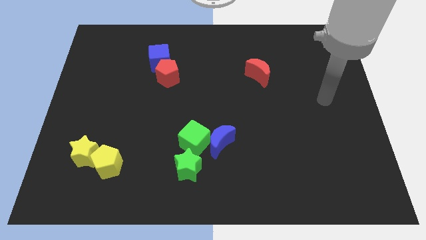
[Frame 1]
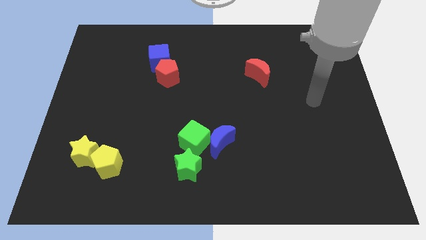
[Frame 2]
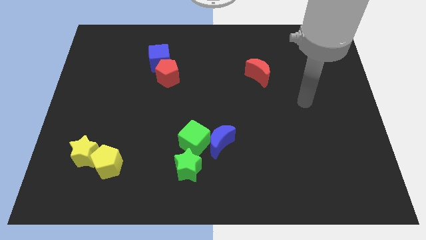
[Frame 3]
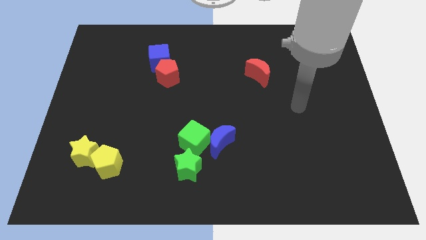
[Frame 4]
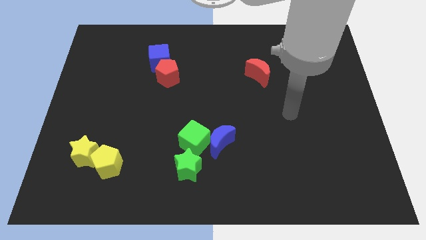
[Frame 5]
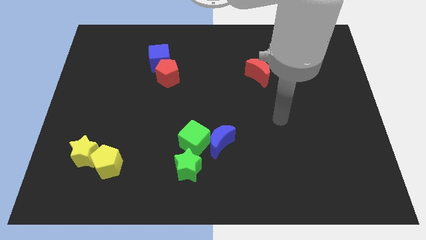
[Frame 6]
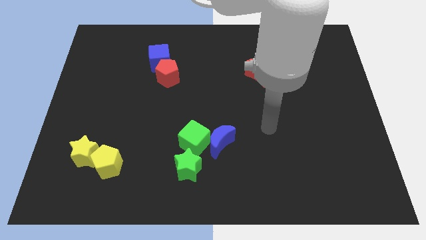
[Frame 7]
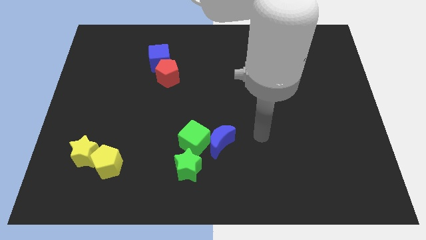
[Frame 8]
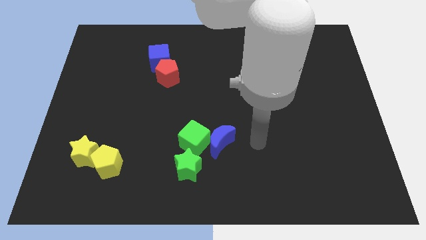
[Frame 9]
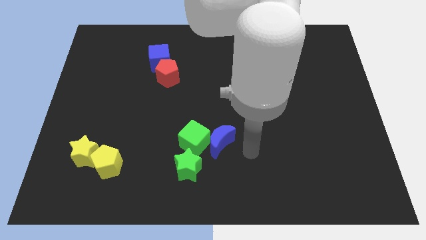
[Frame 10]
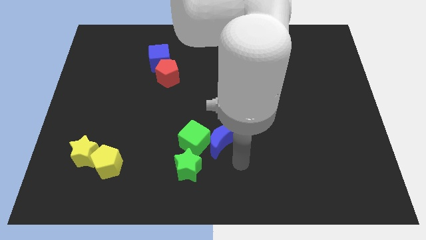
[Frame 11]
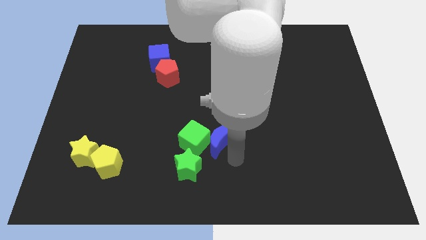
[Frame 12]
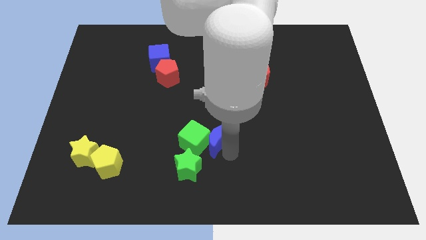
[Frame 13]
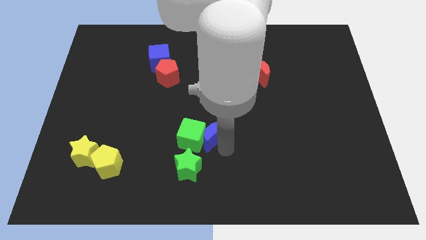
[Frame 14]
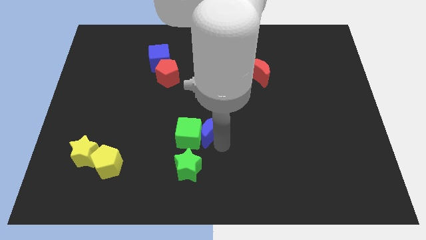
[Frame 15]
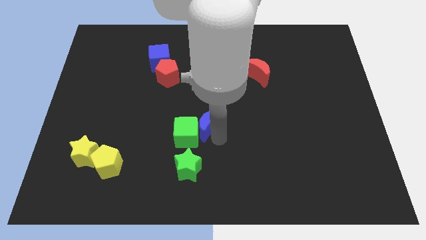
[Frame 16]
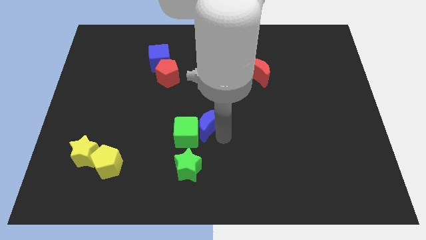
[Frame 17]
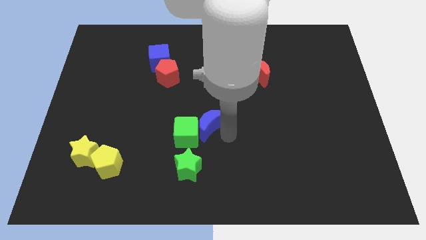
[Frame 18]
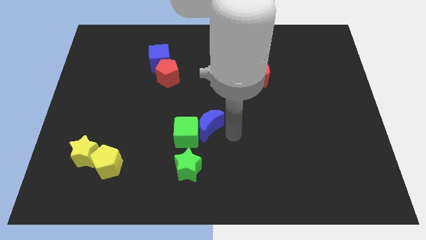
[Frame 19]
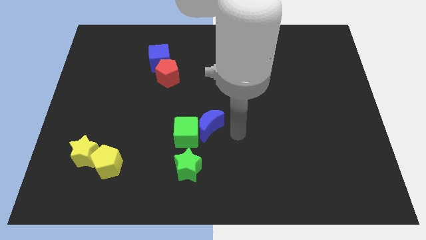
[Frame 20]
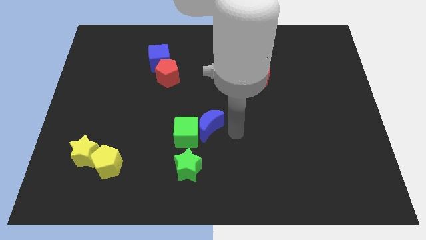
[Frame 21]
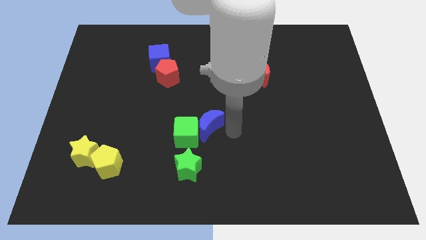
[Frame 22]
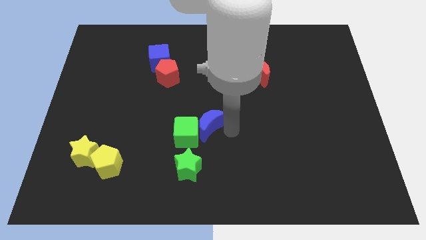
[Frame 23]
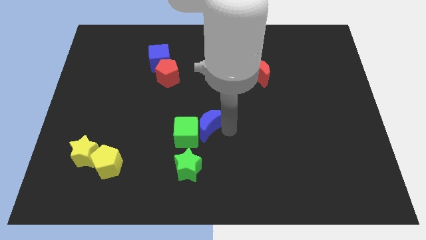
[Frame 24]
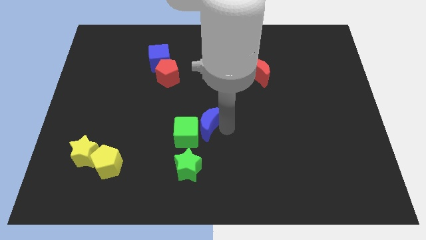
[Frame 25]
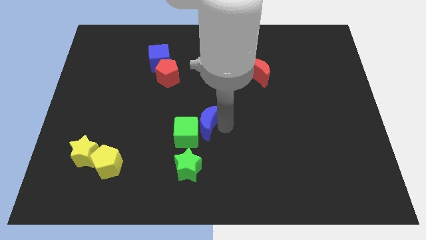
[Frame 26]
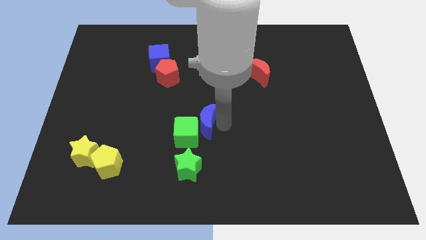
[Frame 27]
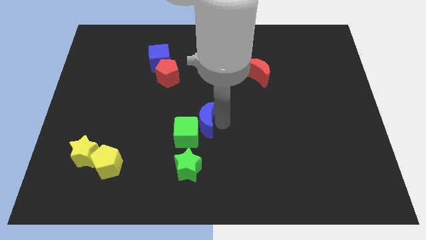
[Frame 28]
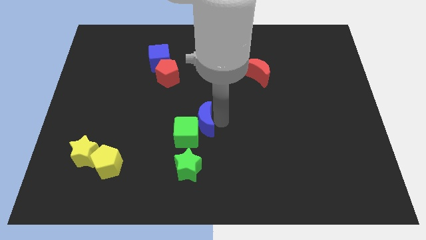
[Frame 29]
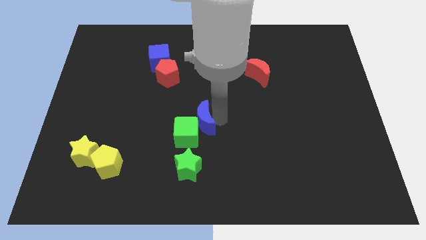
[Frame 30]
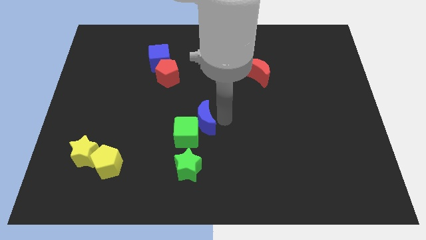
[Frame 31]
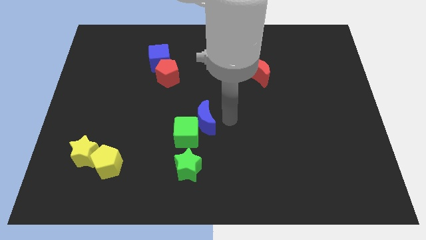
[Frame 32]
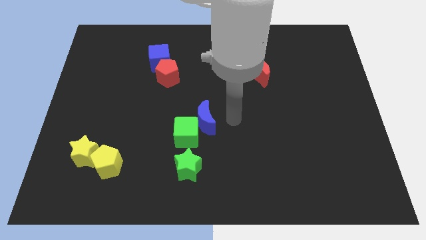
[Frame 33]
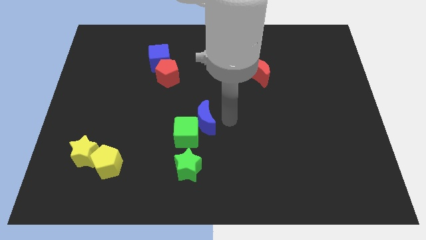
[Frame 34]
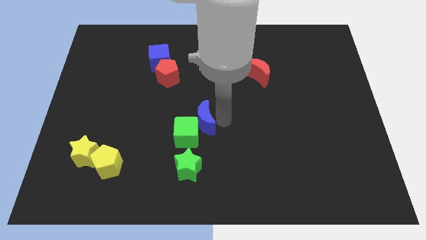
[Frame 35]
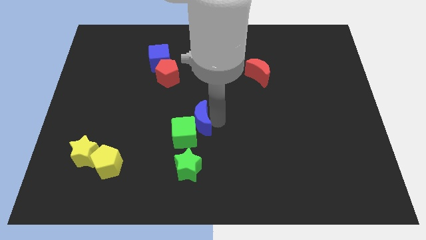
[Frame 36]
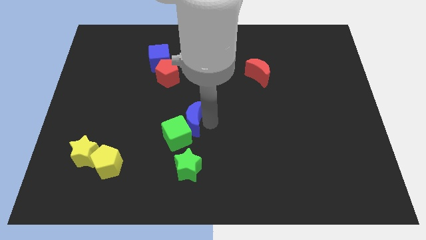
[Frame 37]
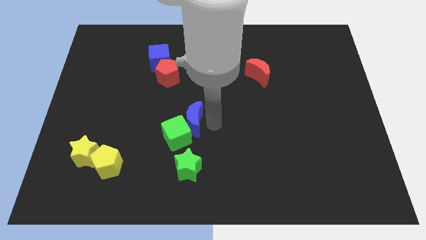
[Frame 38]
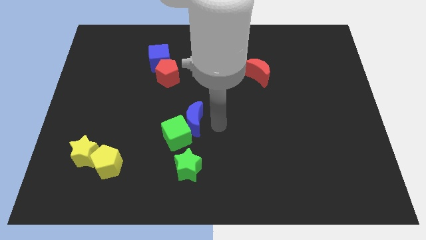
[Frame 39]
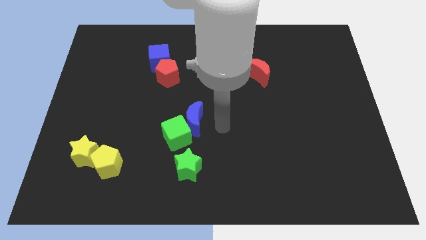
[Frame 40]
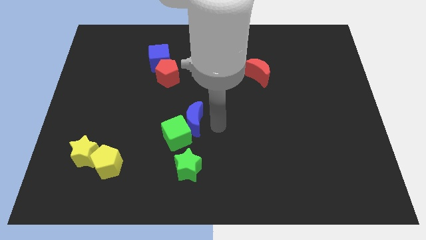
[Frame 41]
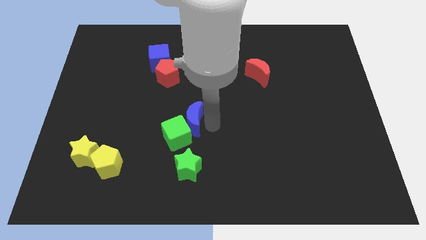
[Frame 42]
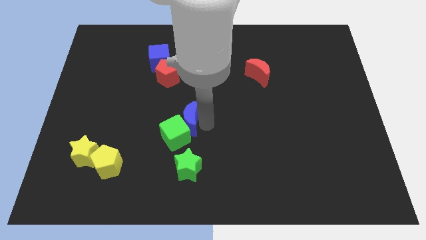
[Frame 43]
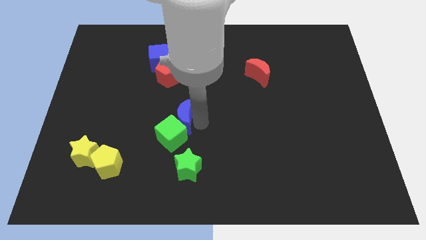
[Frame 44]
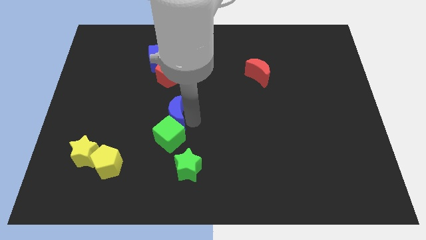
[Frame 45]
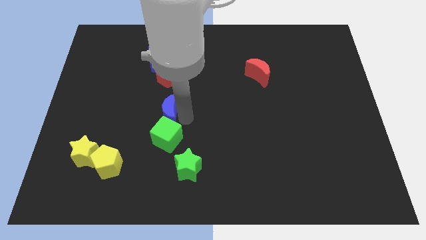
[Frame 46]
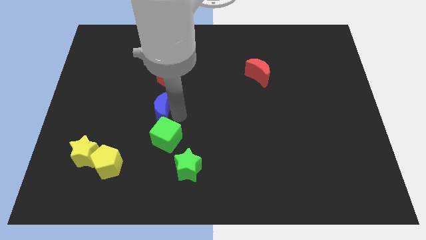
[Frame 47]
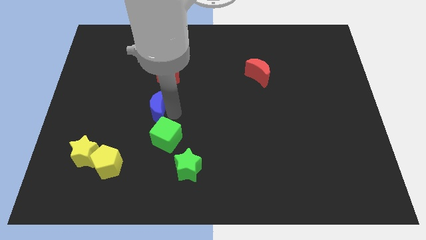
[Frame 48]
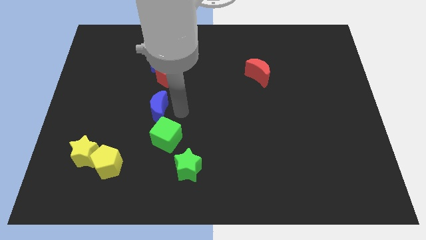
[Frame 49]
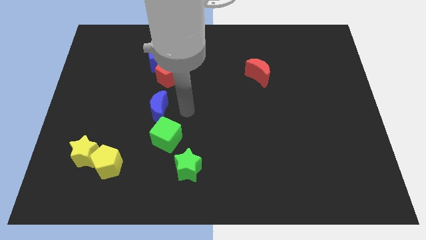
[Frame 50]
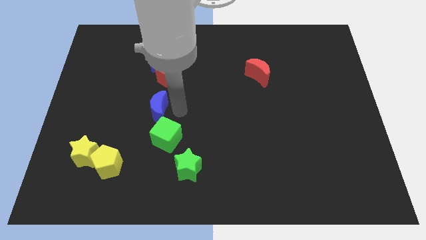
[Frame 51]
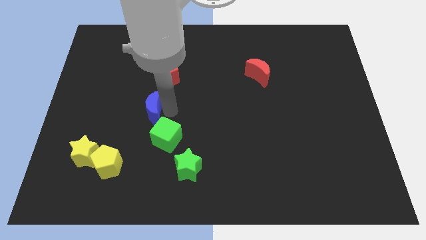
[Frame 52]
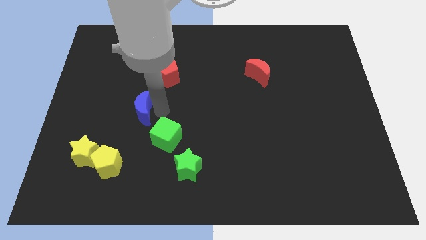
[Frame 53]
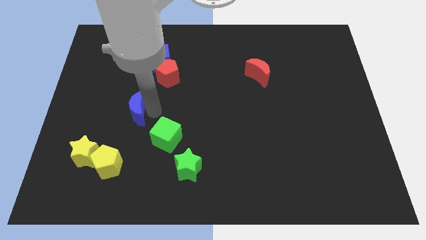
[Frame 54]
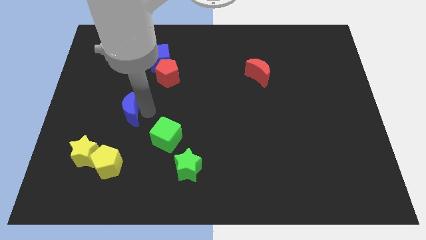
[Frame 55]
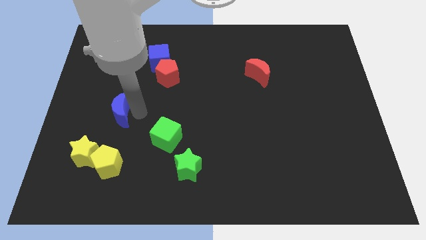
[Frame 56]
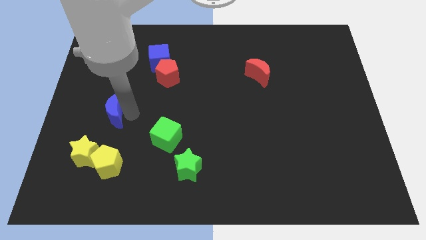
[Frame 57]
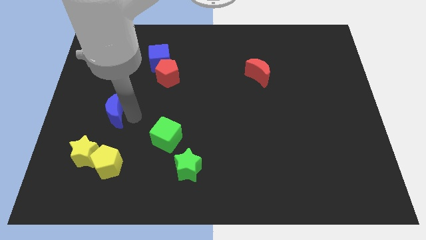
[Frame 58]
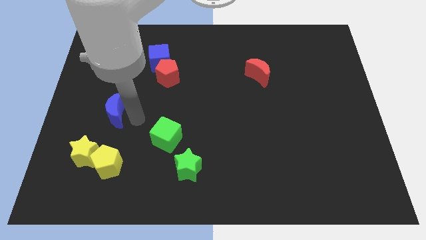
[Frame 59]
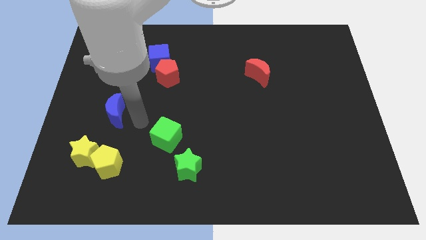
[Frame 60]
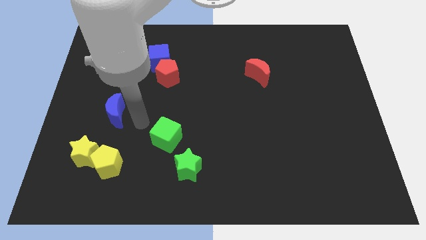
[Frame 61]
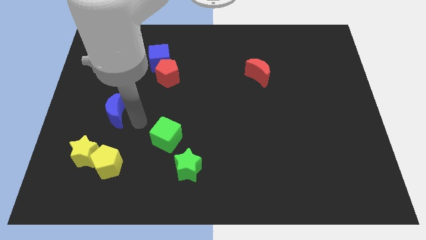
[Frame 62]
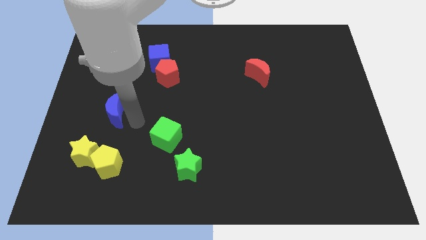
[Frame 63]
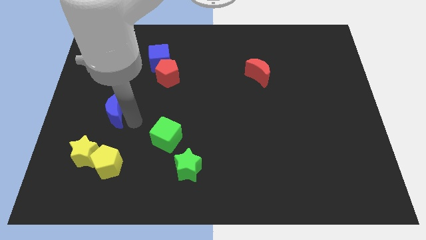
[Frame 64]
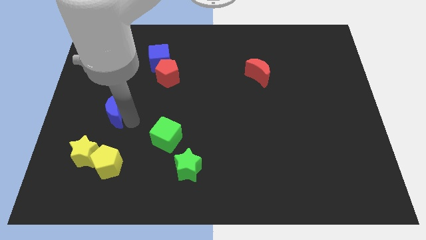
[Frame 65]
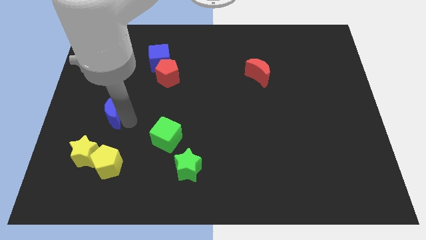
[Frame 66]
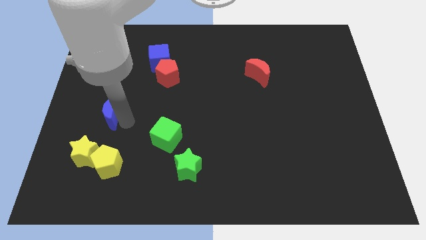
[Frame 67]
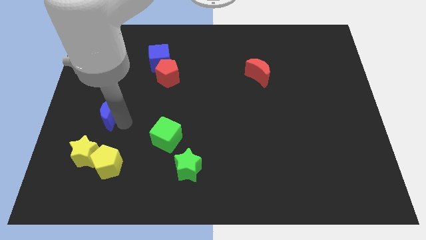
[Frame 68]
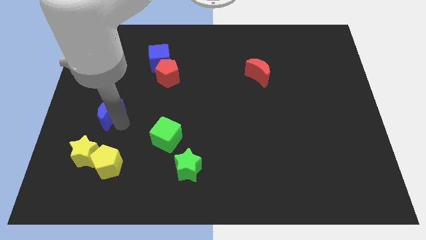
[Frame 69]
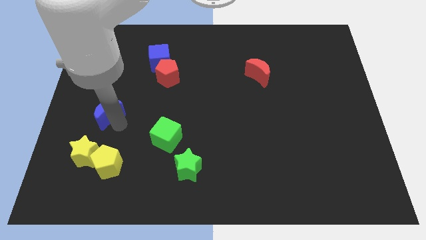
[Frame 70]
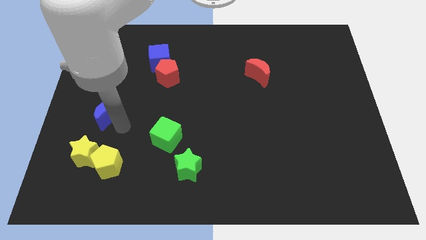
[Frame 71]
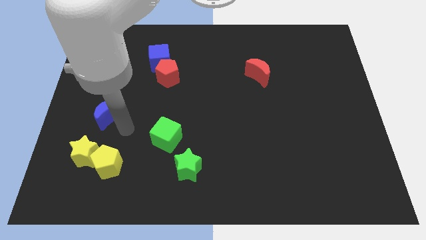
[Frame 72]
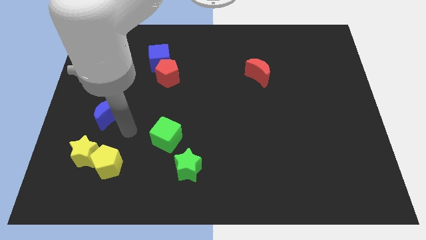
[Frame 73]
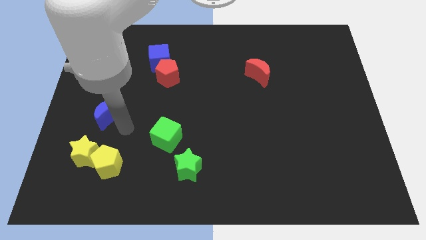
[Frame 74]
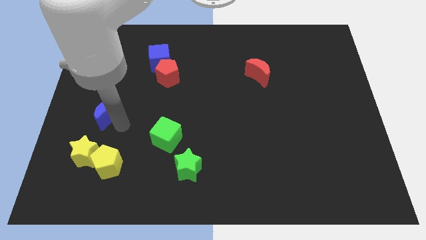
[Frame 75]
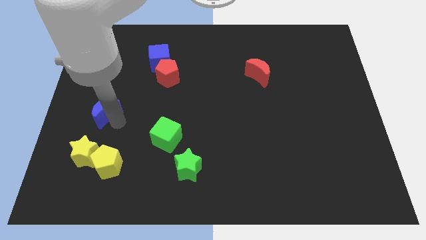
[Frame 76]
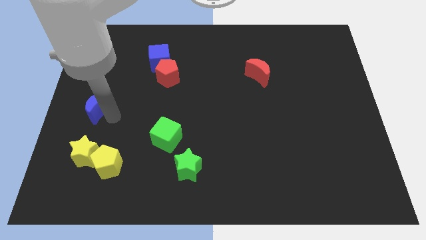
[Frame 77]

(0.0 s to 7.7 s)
move the blue moon to the center left
